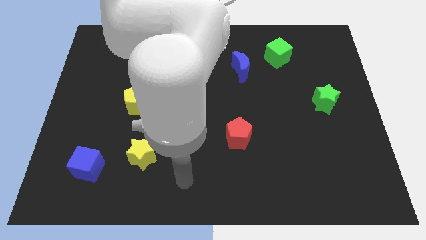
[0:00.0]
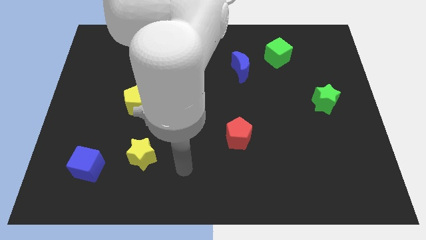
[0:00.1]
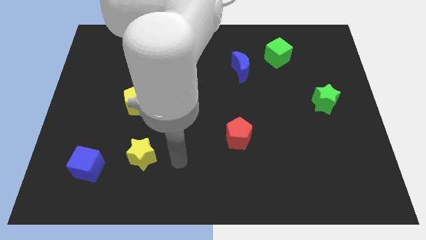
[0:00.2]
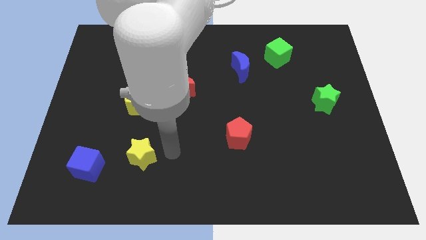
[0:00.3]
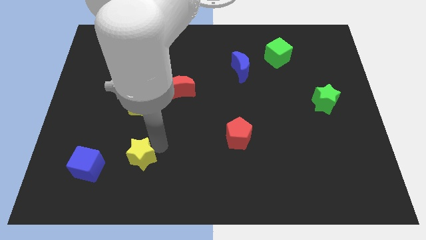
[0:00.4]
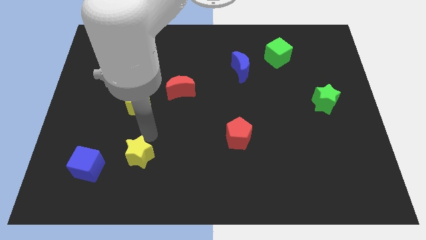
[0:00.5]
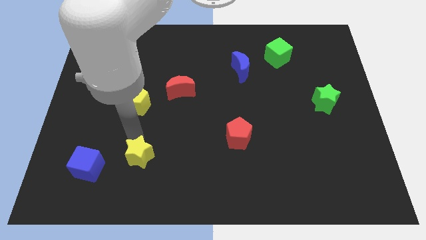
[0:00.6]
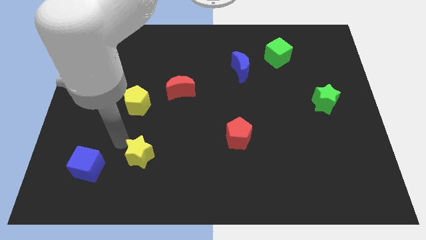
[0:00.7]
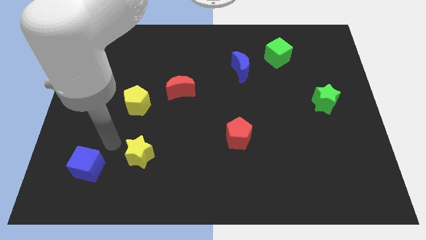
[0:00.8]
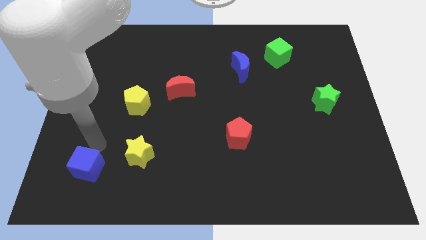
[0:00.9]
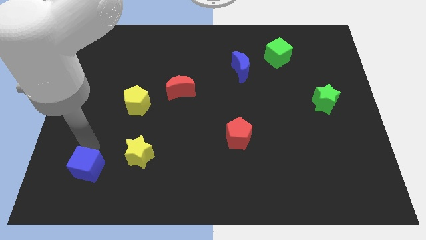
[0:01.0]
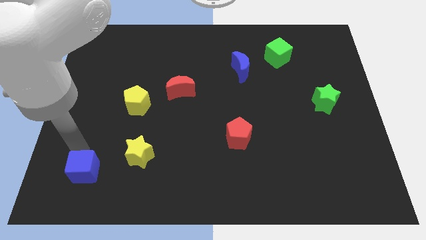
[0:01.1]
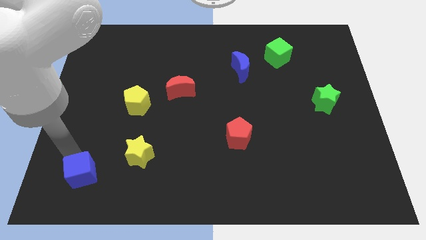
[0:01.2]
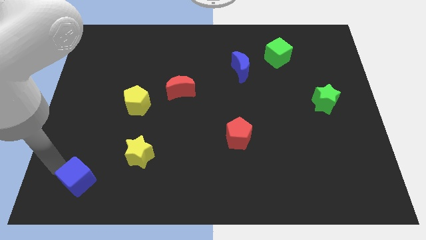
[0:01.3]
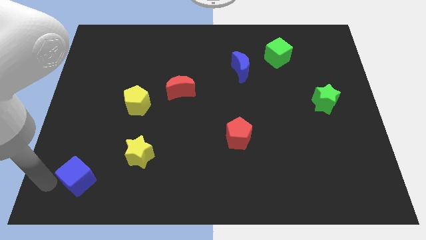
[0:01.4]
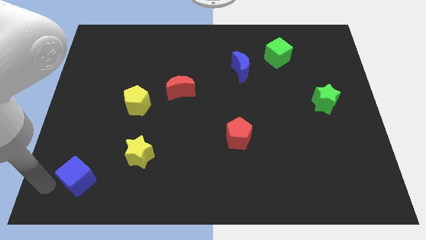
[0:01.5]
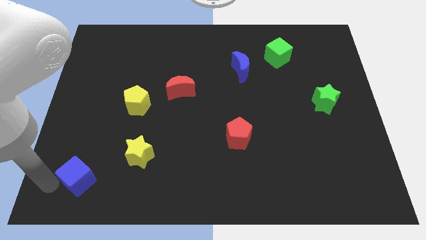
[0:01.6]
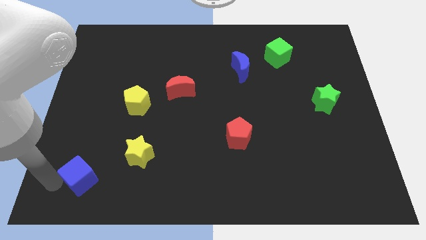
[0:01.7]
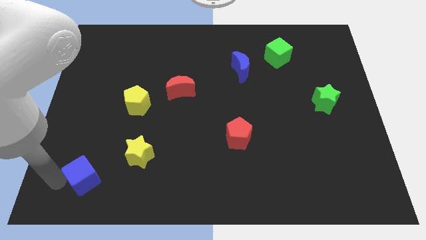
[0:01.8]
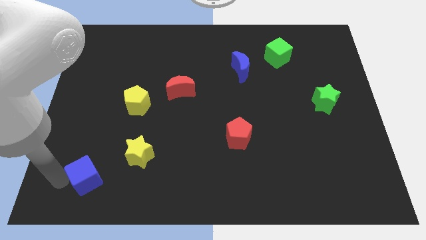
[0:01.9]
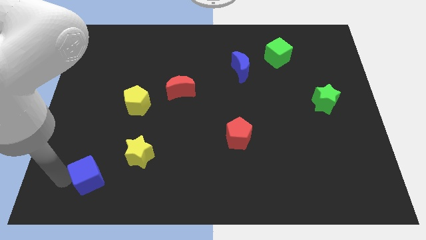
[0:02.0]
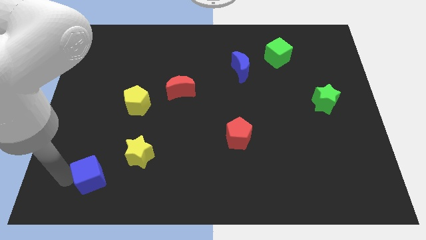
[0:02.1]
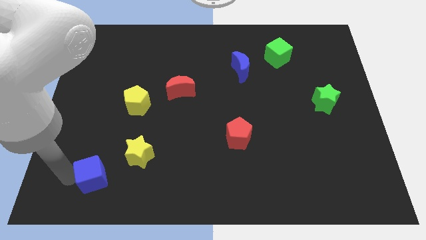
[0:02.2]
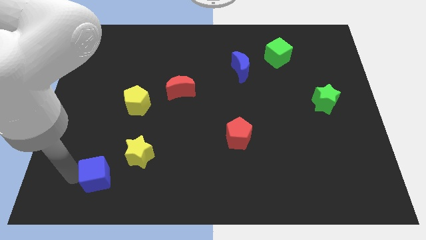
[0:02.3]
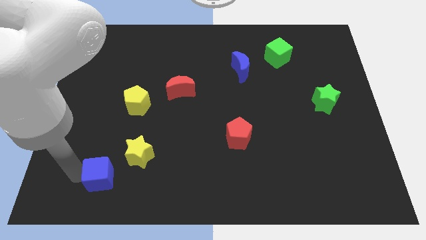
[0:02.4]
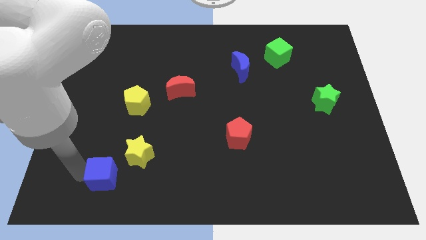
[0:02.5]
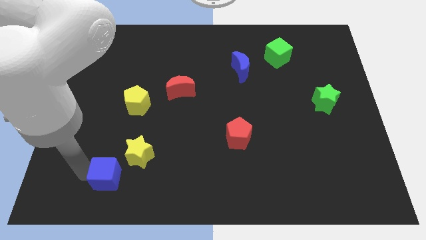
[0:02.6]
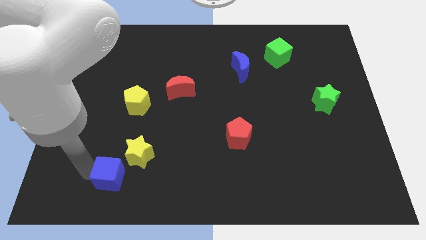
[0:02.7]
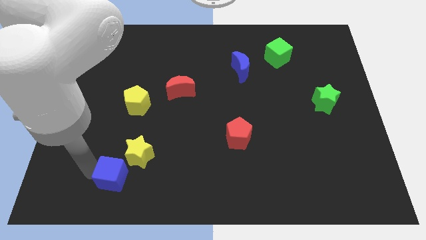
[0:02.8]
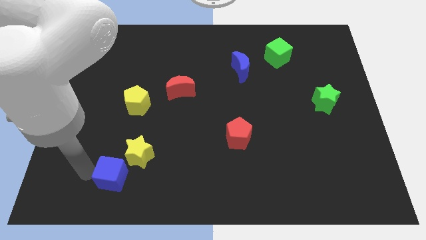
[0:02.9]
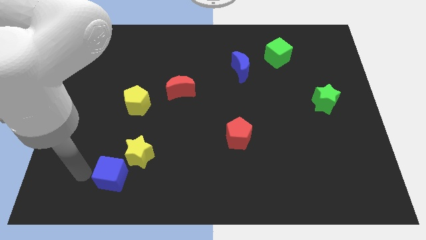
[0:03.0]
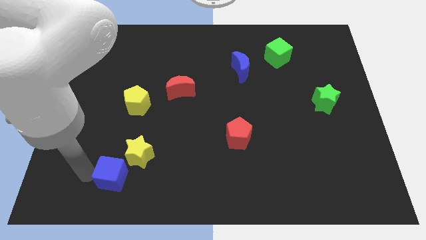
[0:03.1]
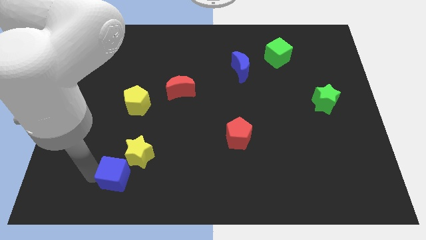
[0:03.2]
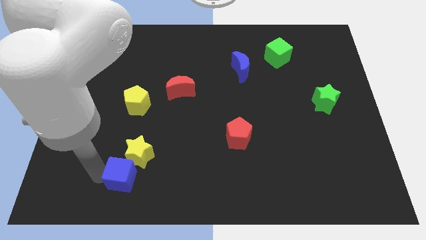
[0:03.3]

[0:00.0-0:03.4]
slide the blue cube to the right a little bit

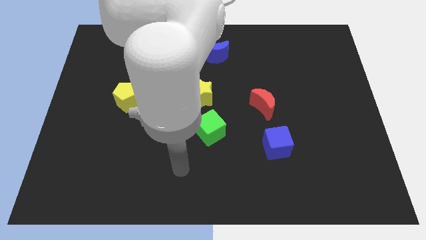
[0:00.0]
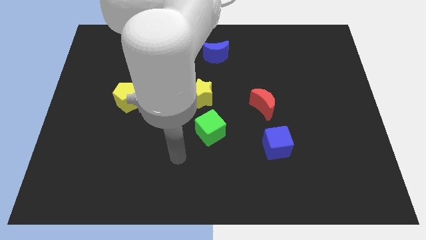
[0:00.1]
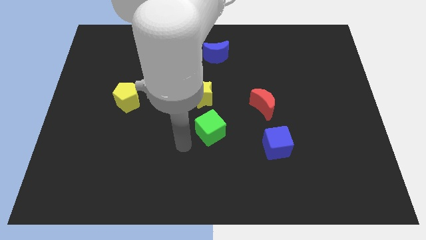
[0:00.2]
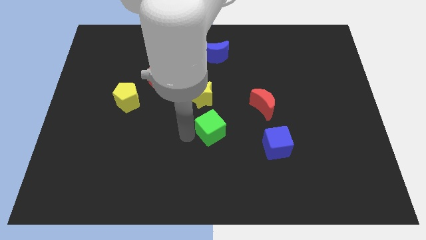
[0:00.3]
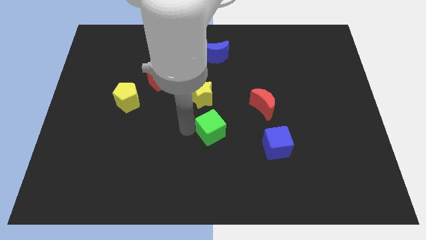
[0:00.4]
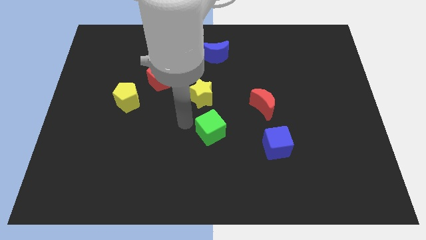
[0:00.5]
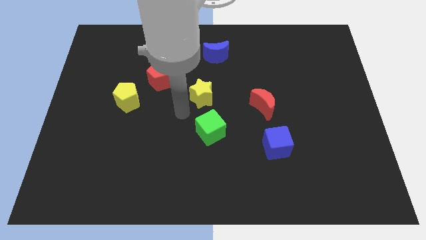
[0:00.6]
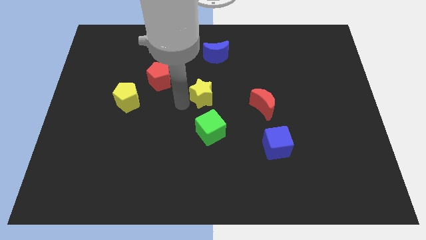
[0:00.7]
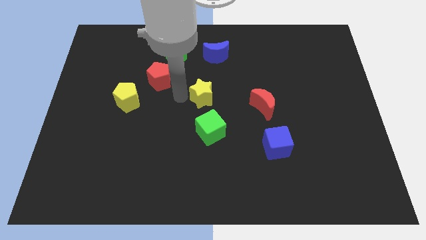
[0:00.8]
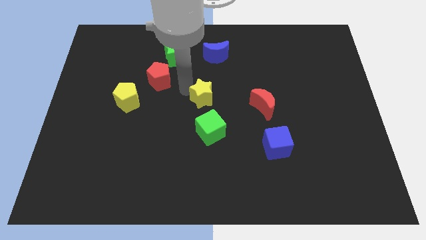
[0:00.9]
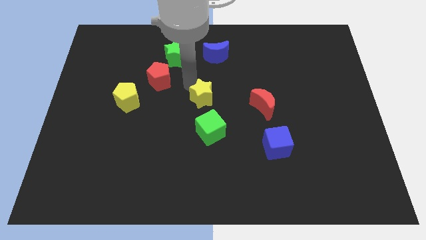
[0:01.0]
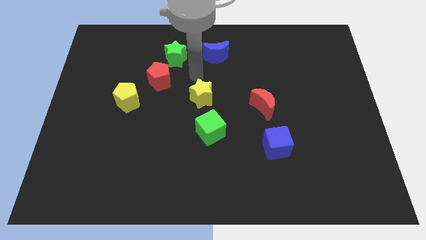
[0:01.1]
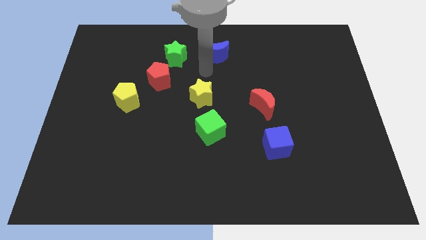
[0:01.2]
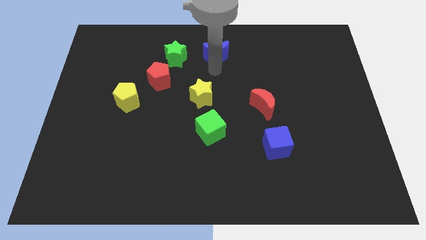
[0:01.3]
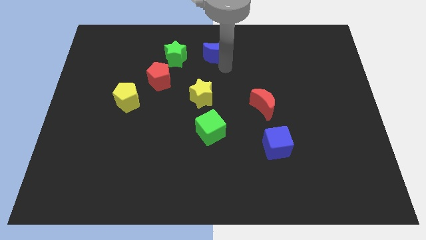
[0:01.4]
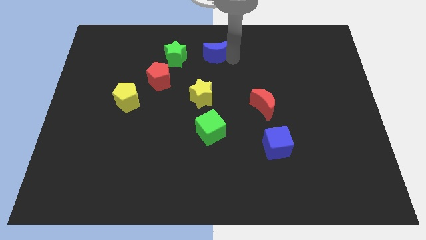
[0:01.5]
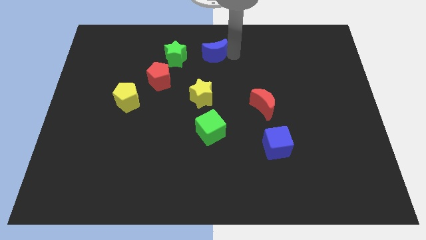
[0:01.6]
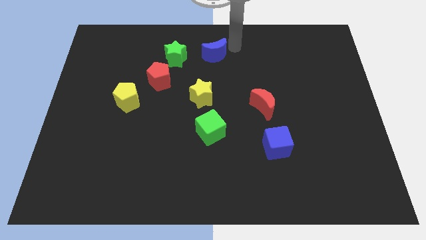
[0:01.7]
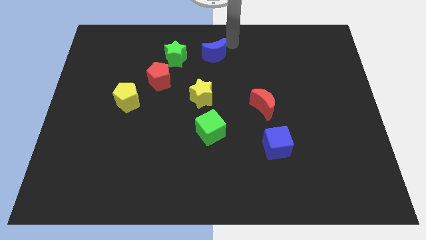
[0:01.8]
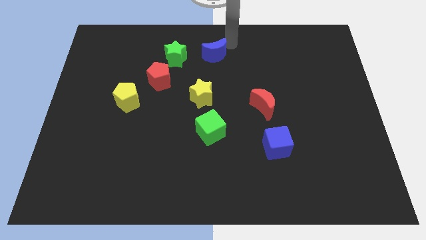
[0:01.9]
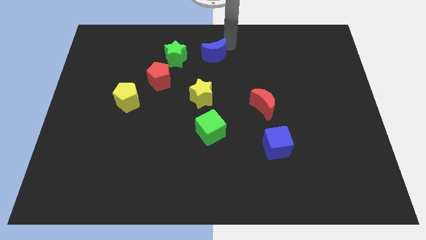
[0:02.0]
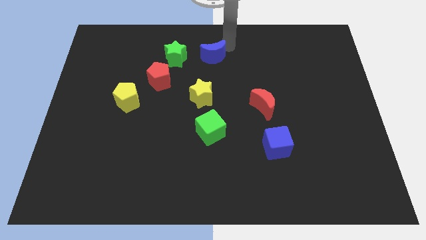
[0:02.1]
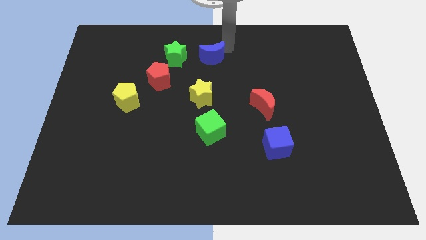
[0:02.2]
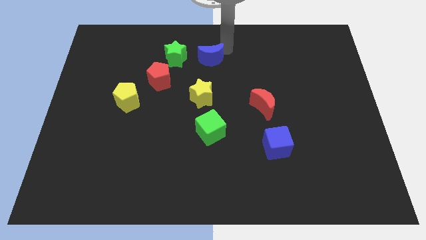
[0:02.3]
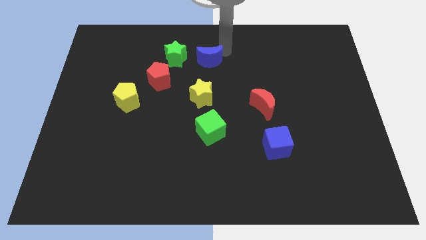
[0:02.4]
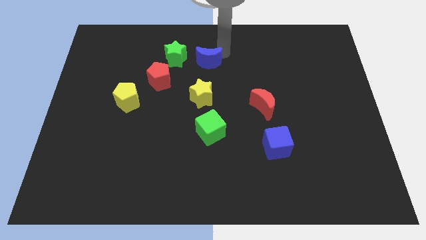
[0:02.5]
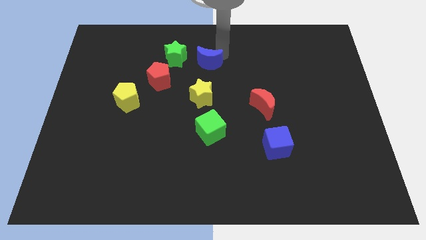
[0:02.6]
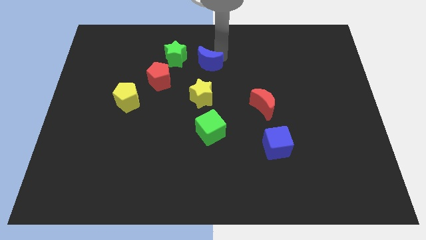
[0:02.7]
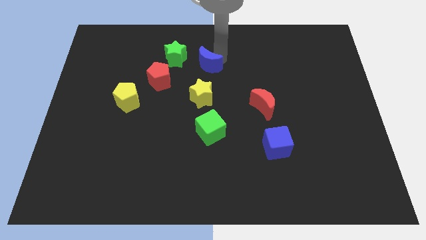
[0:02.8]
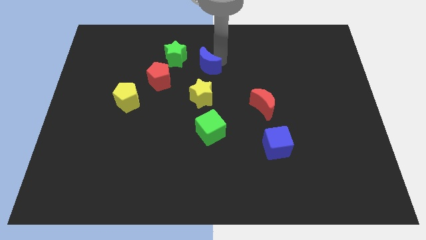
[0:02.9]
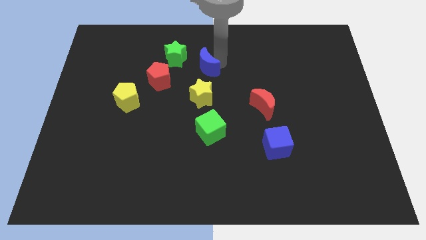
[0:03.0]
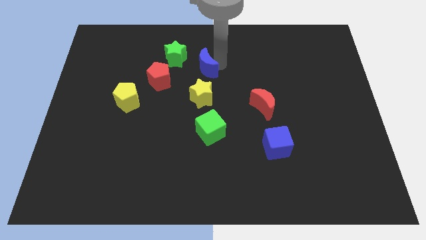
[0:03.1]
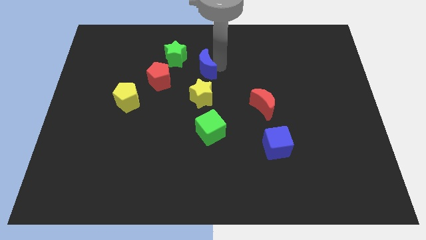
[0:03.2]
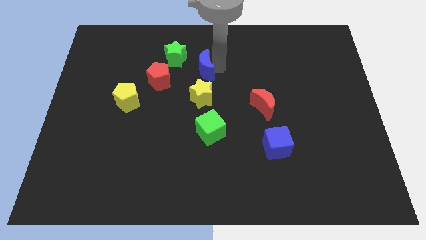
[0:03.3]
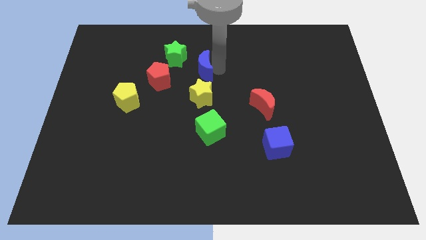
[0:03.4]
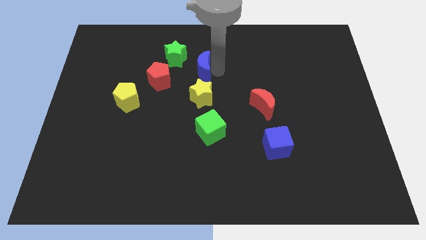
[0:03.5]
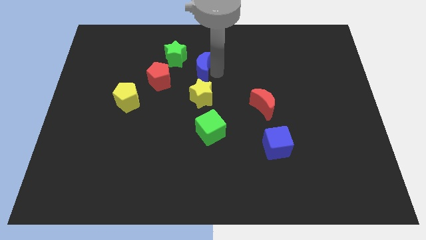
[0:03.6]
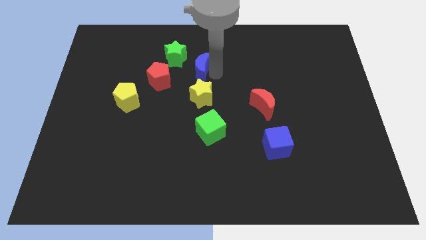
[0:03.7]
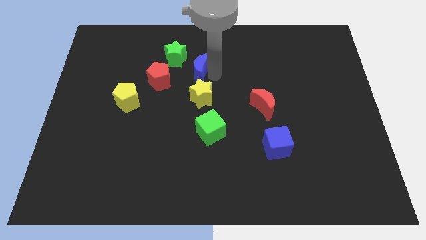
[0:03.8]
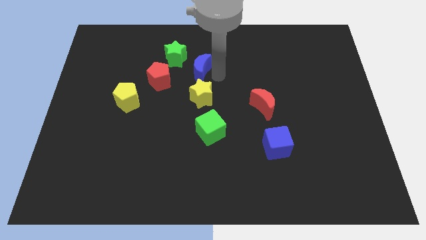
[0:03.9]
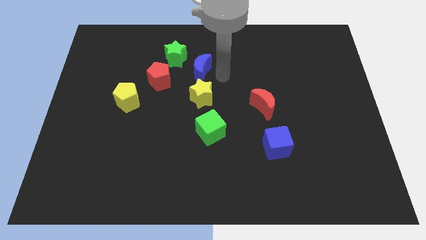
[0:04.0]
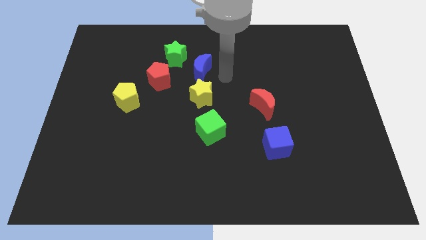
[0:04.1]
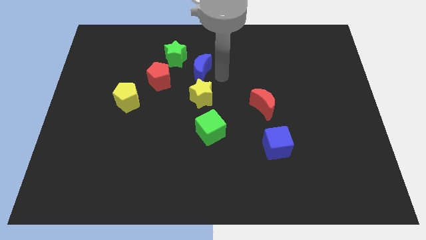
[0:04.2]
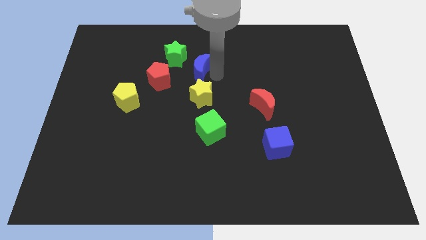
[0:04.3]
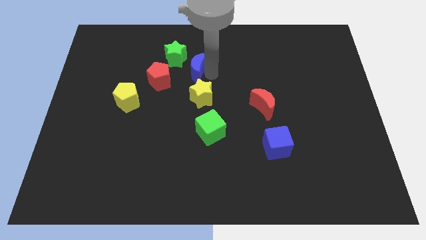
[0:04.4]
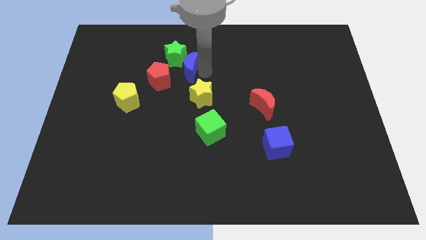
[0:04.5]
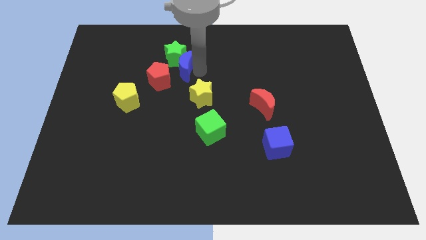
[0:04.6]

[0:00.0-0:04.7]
push the blue moon left slightly

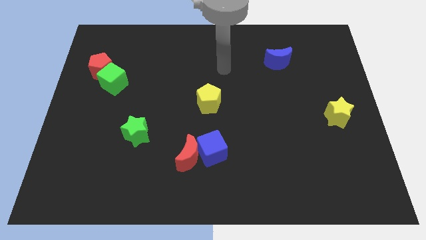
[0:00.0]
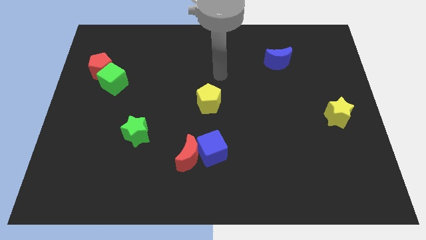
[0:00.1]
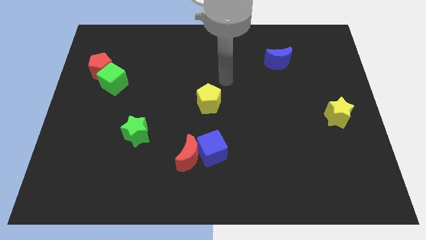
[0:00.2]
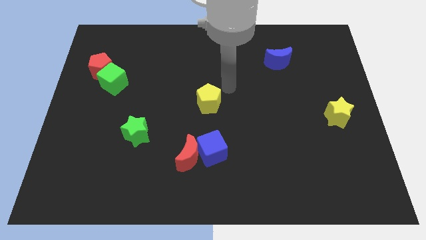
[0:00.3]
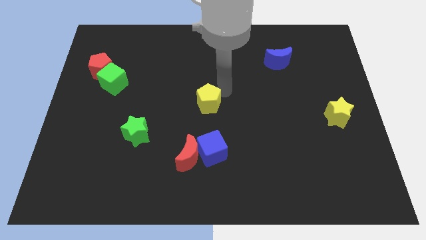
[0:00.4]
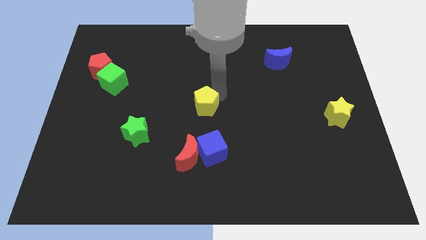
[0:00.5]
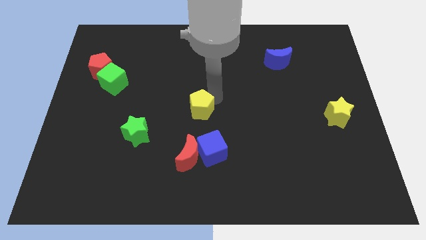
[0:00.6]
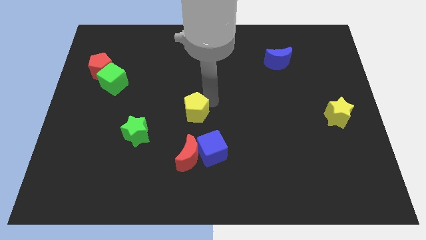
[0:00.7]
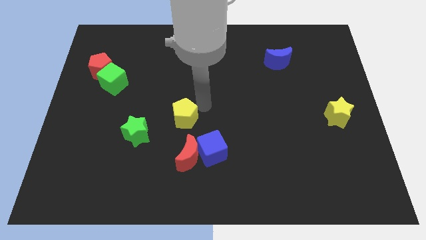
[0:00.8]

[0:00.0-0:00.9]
move the yellow pentagon a little down and to the left diagonally
